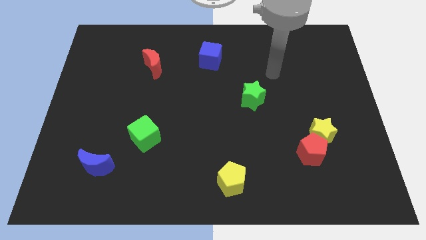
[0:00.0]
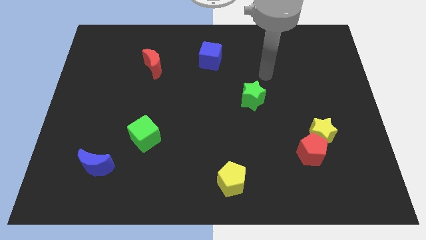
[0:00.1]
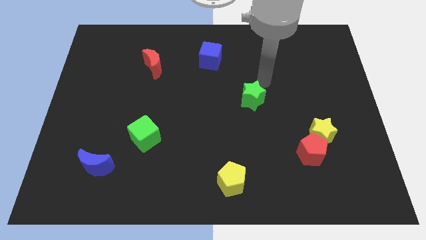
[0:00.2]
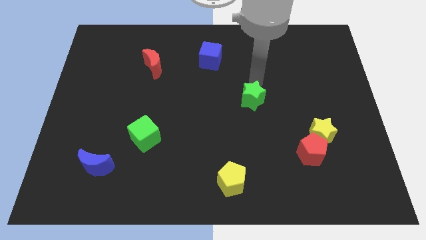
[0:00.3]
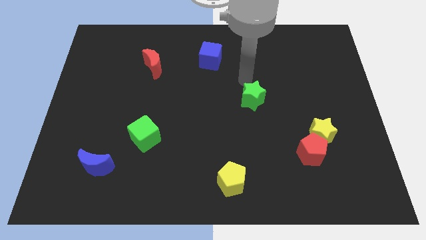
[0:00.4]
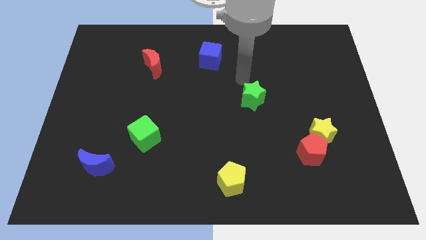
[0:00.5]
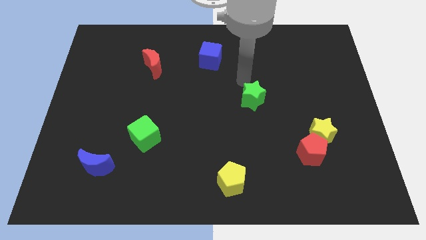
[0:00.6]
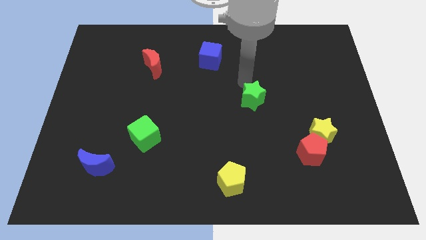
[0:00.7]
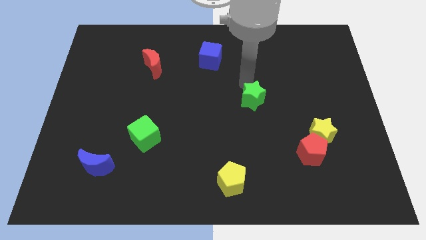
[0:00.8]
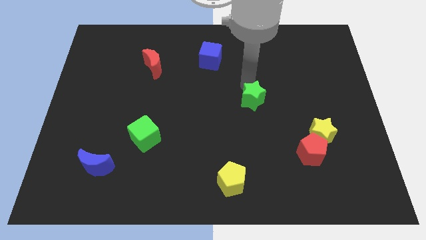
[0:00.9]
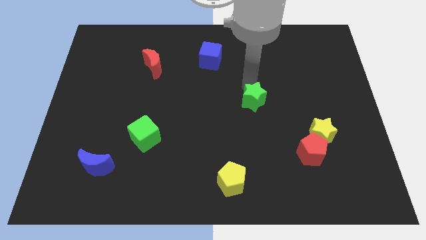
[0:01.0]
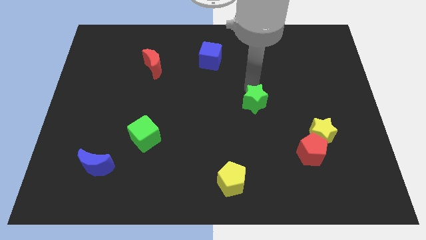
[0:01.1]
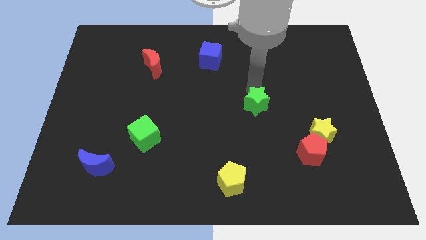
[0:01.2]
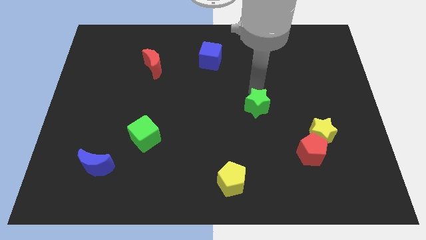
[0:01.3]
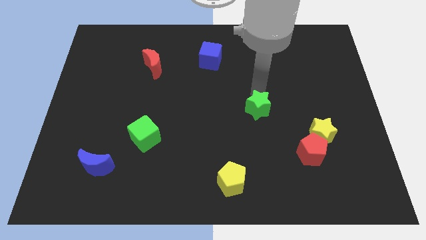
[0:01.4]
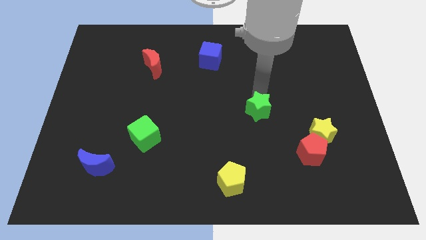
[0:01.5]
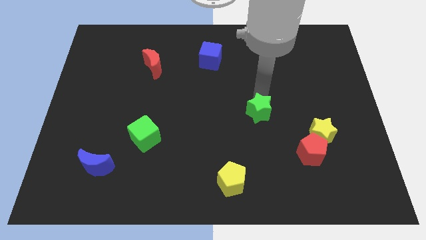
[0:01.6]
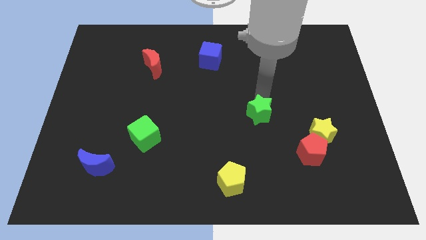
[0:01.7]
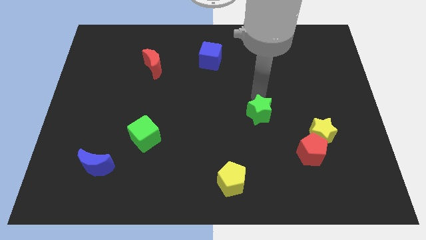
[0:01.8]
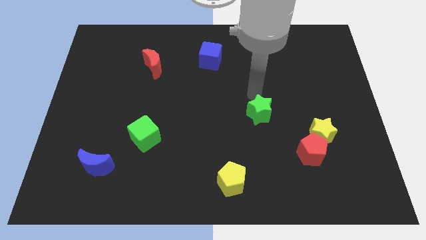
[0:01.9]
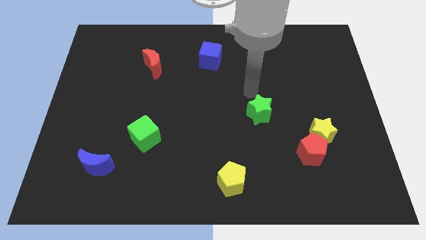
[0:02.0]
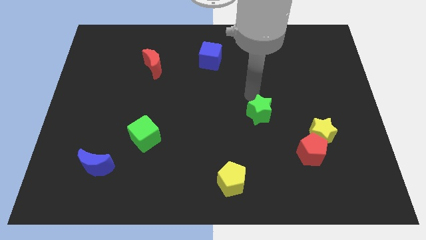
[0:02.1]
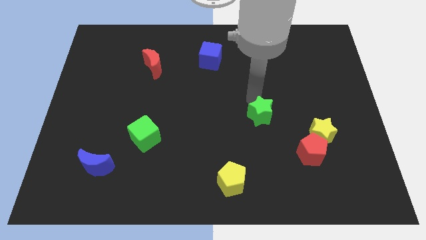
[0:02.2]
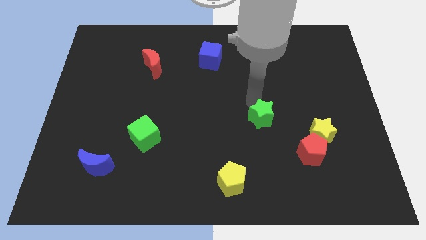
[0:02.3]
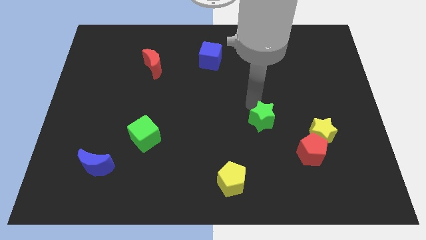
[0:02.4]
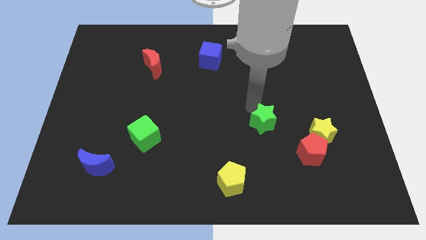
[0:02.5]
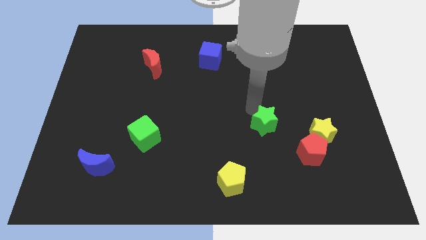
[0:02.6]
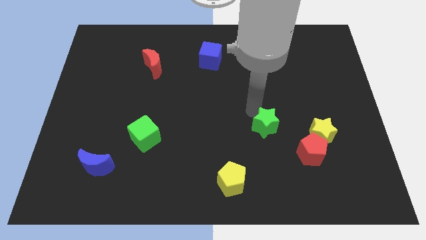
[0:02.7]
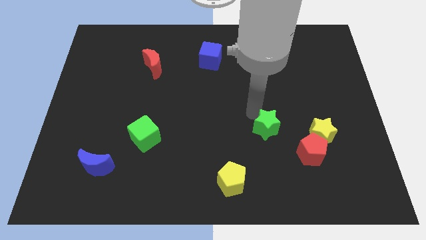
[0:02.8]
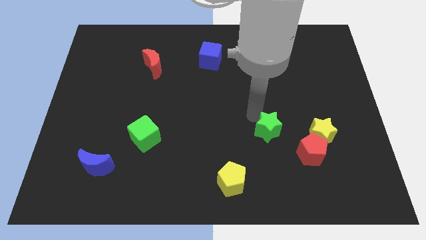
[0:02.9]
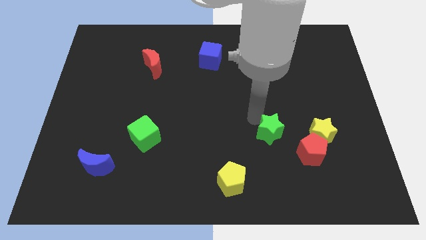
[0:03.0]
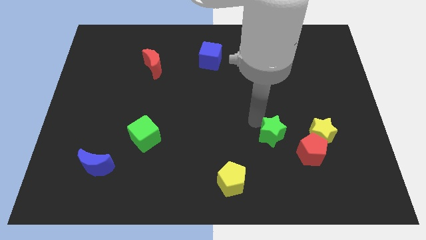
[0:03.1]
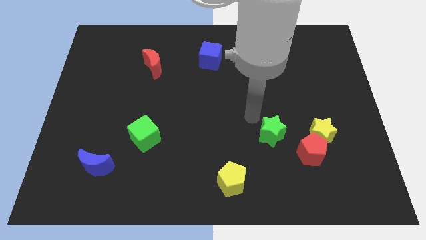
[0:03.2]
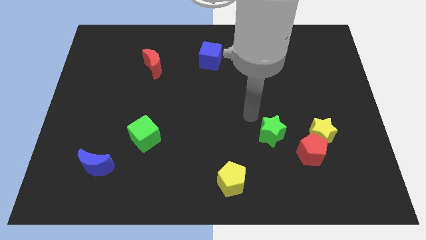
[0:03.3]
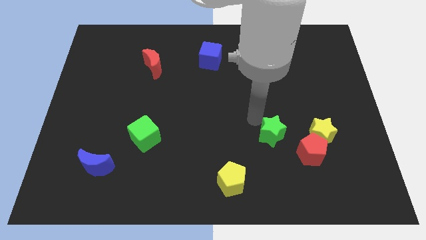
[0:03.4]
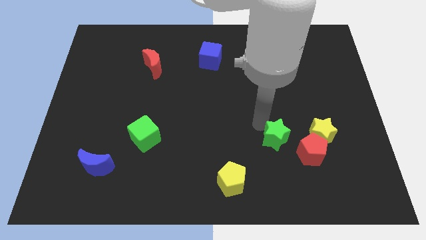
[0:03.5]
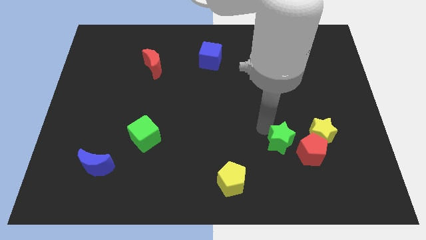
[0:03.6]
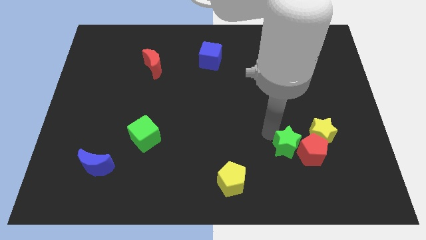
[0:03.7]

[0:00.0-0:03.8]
put the green star diagonally down and to the left of the yellow star

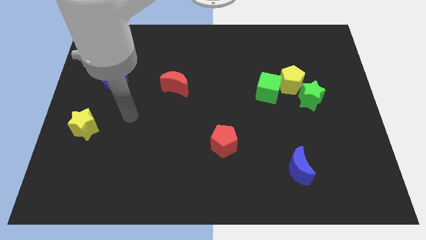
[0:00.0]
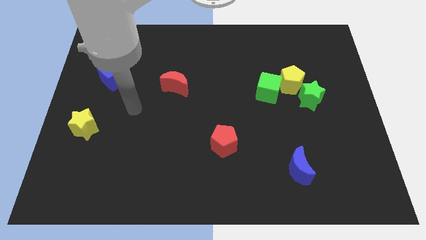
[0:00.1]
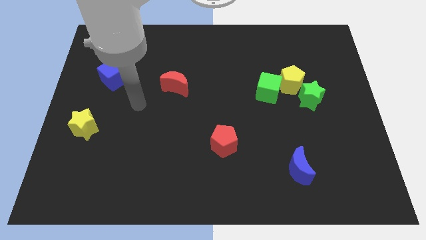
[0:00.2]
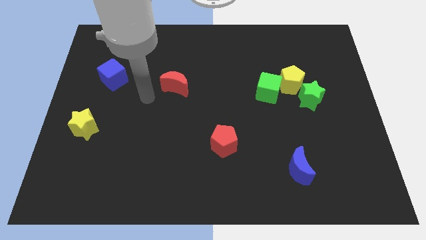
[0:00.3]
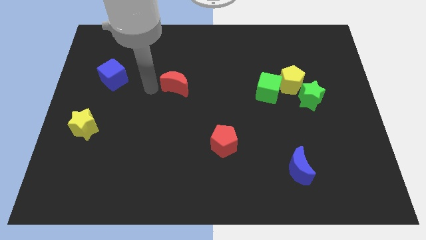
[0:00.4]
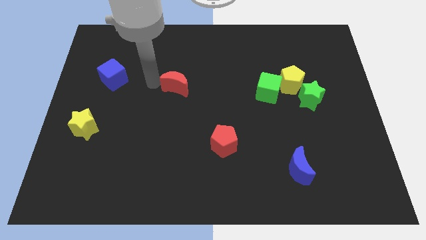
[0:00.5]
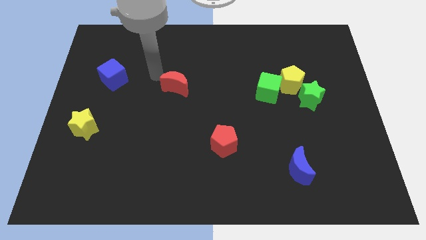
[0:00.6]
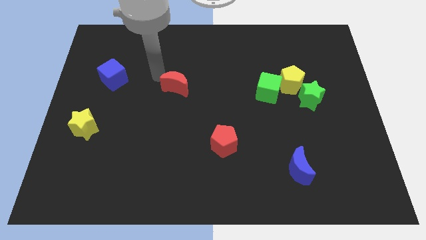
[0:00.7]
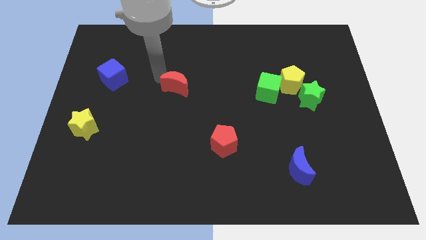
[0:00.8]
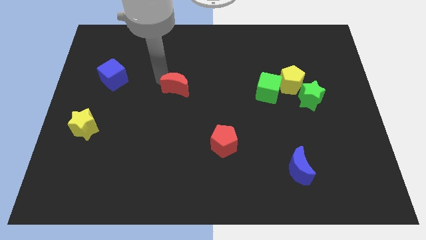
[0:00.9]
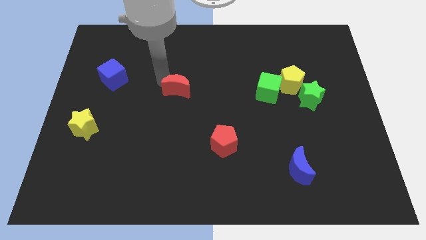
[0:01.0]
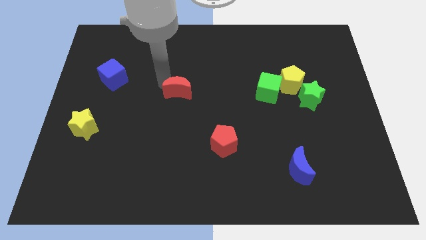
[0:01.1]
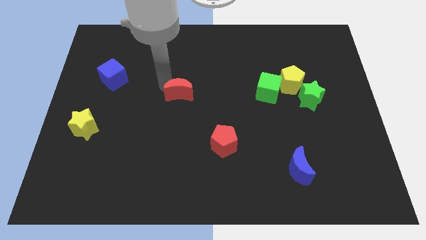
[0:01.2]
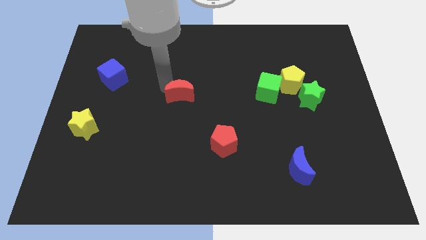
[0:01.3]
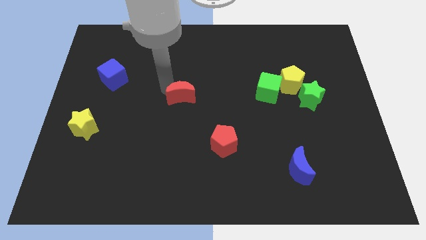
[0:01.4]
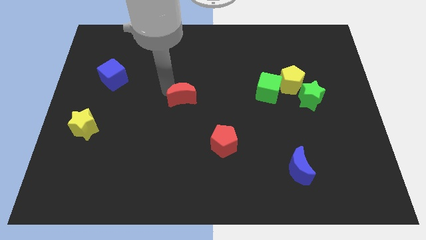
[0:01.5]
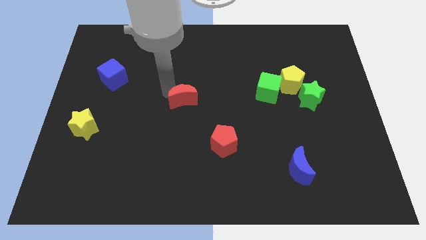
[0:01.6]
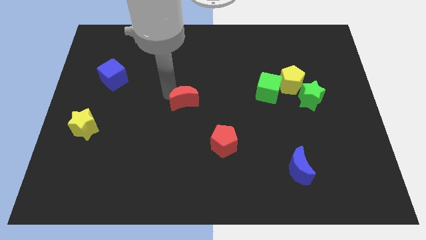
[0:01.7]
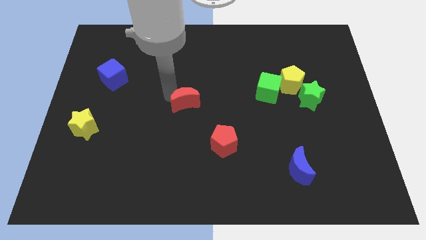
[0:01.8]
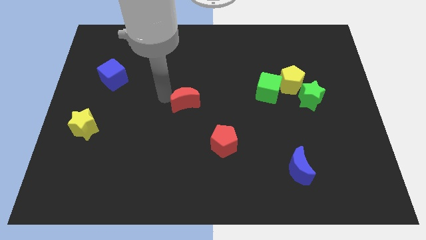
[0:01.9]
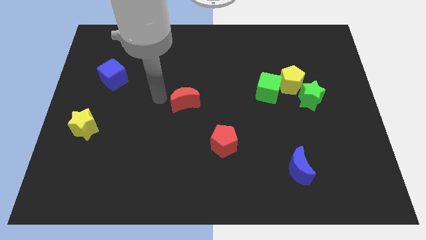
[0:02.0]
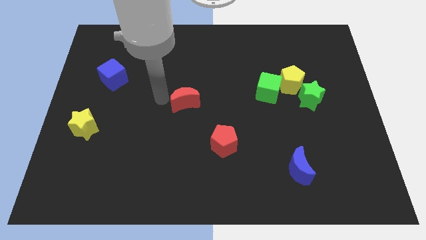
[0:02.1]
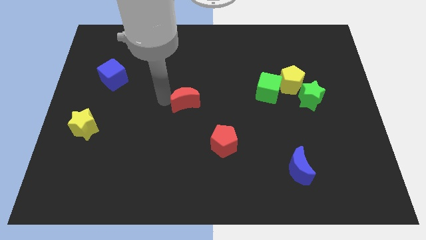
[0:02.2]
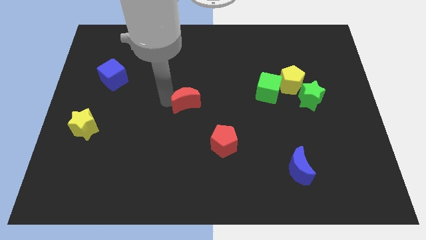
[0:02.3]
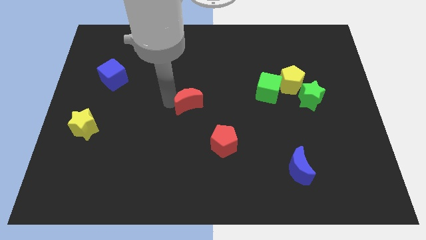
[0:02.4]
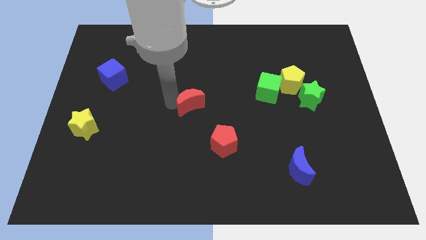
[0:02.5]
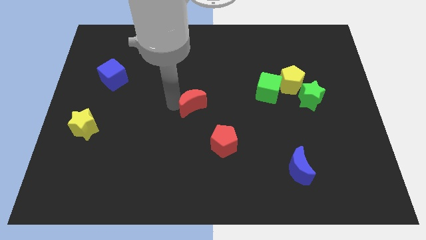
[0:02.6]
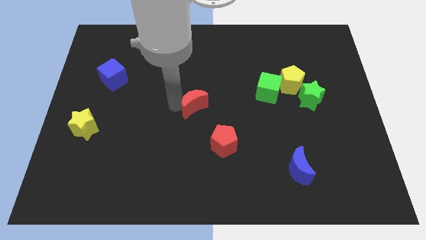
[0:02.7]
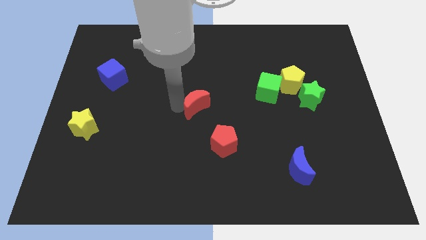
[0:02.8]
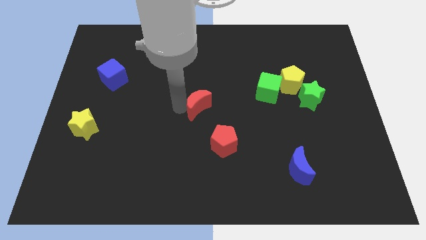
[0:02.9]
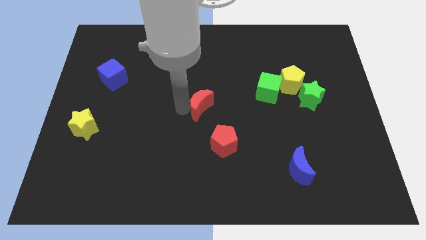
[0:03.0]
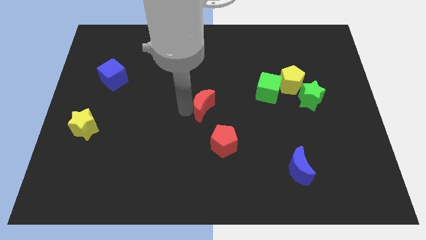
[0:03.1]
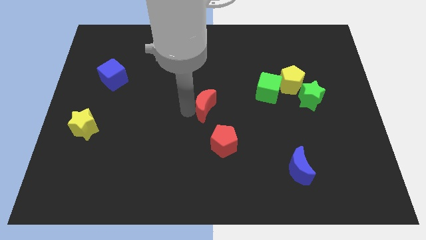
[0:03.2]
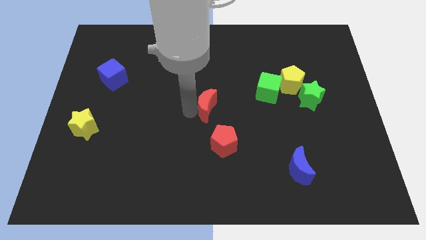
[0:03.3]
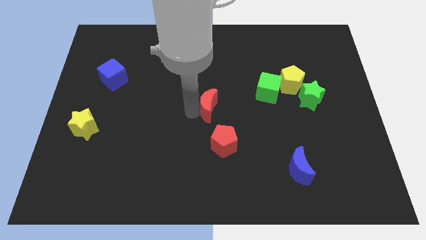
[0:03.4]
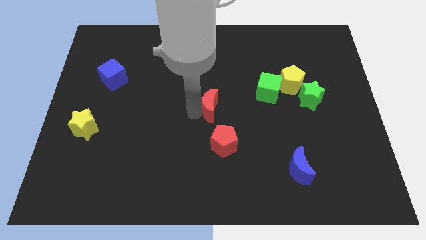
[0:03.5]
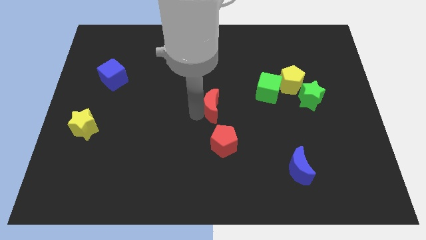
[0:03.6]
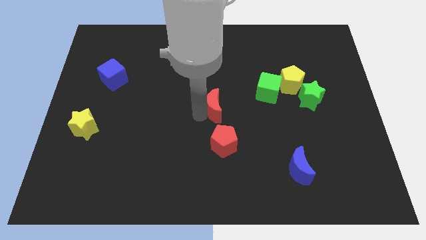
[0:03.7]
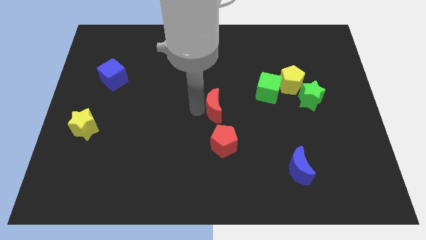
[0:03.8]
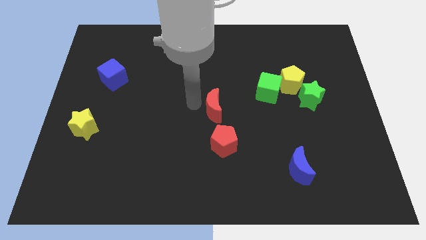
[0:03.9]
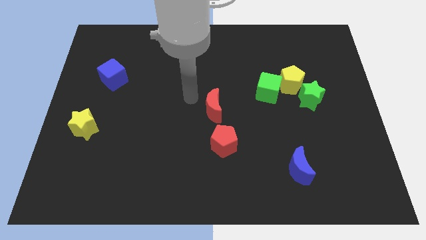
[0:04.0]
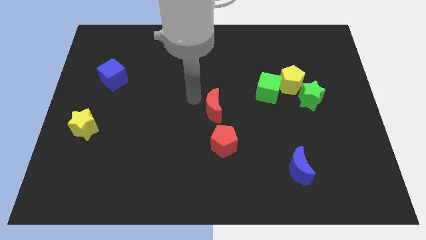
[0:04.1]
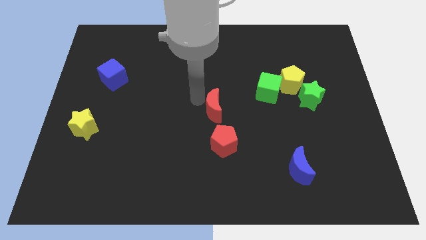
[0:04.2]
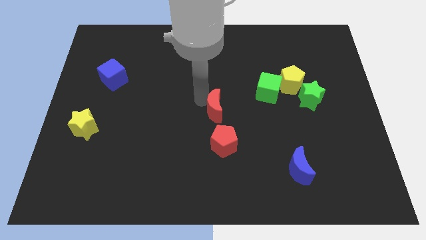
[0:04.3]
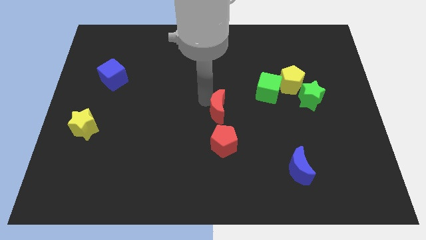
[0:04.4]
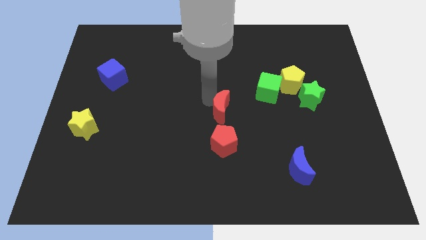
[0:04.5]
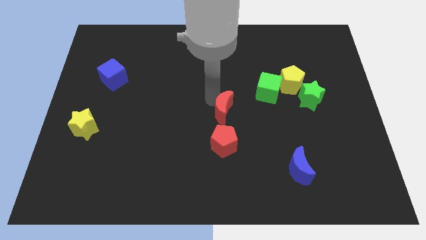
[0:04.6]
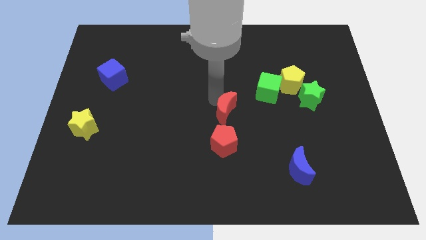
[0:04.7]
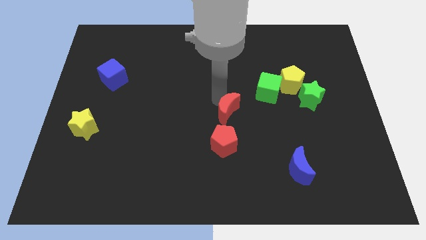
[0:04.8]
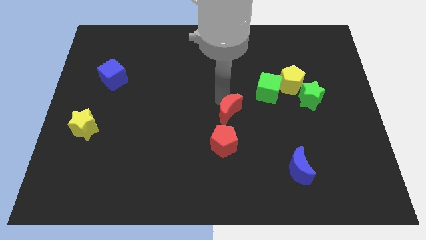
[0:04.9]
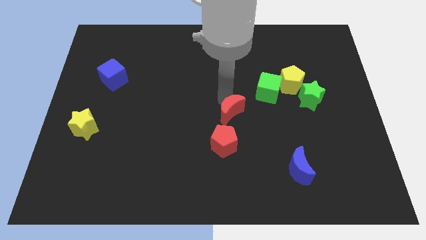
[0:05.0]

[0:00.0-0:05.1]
slide the red moon to the top right side of the red pentagon
